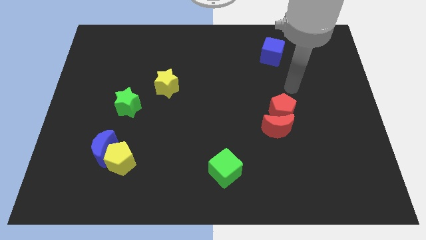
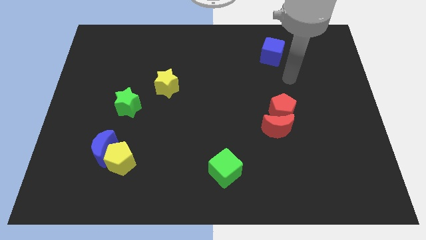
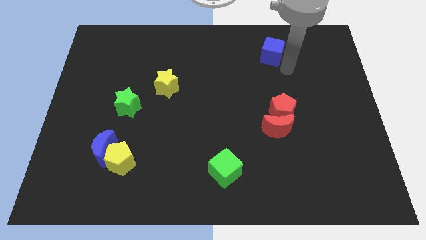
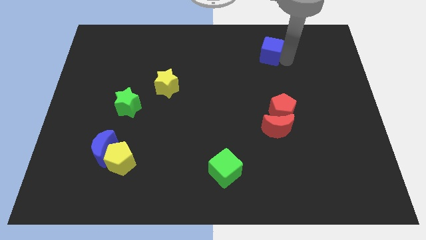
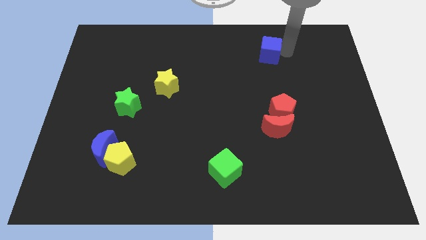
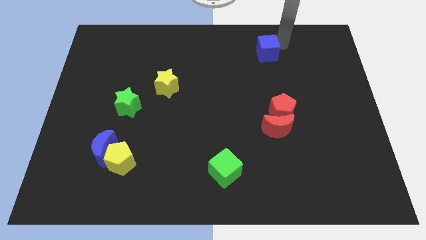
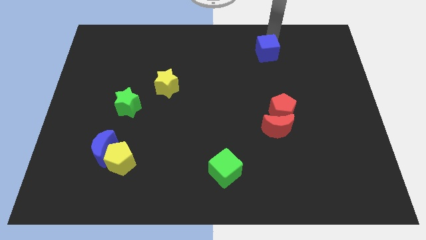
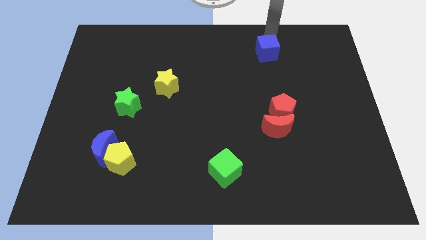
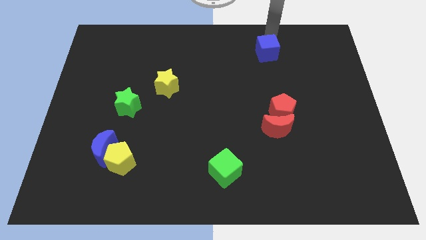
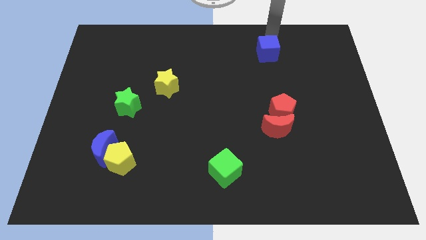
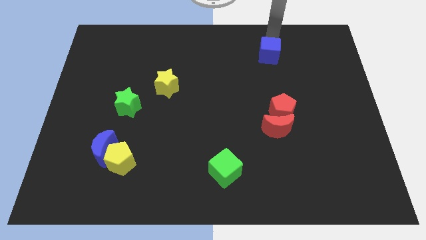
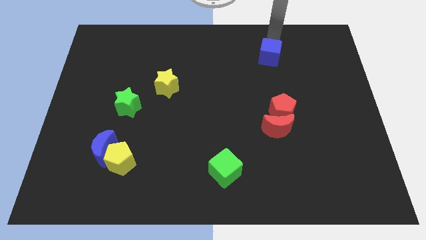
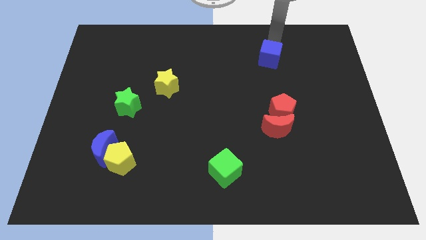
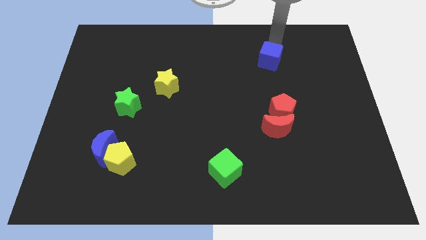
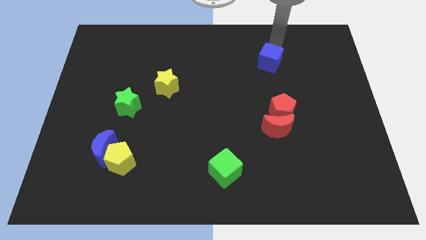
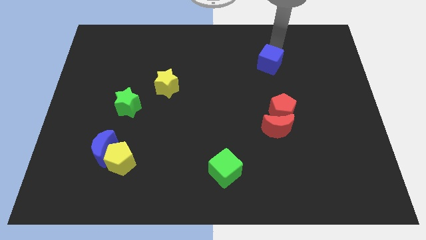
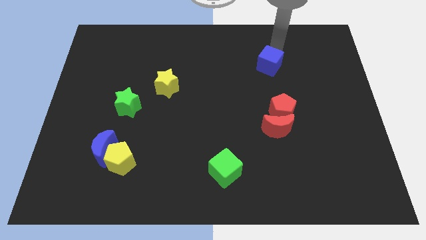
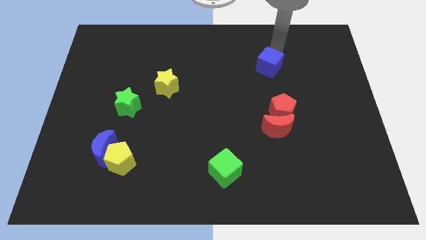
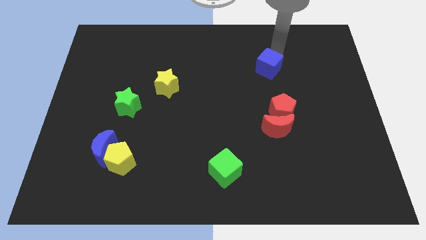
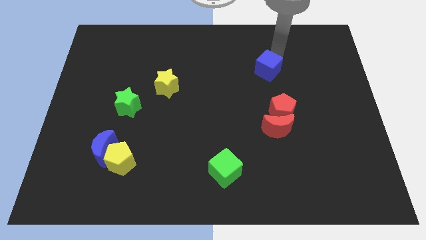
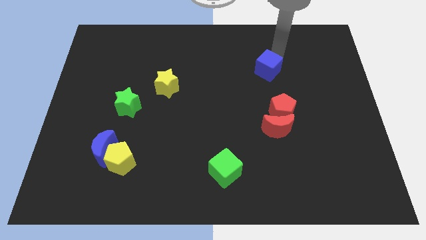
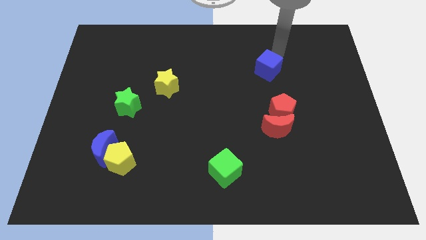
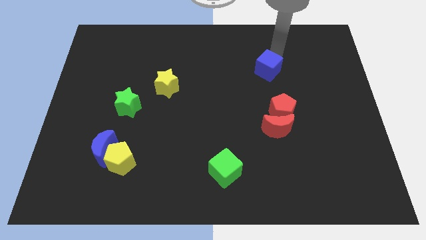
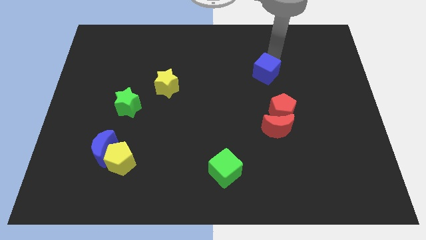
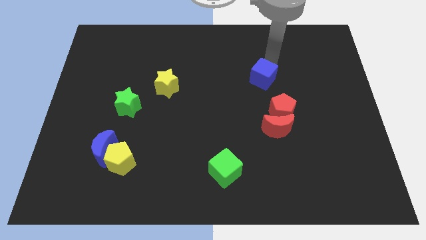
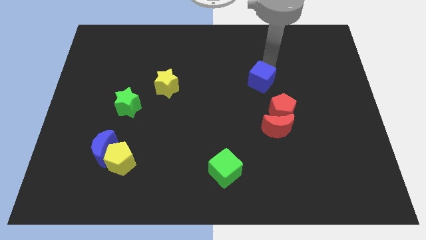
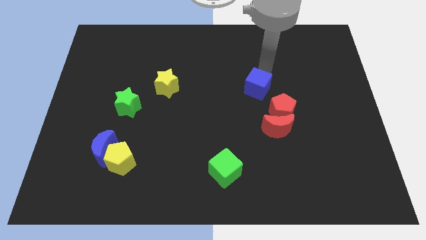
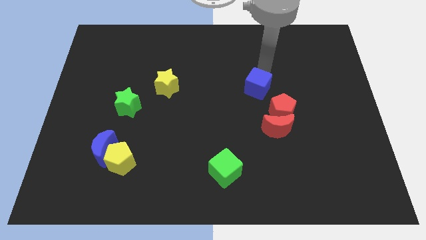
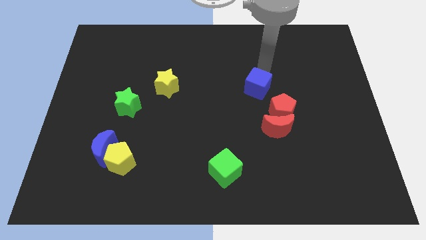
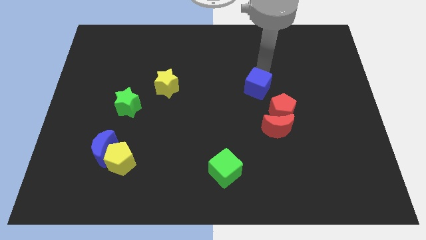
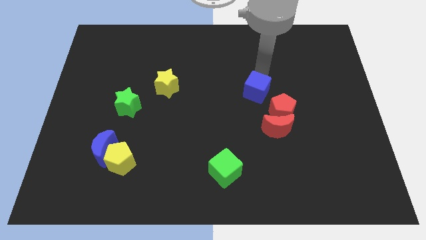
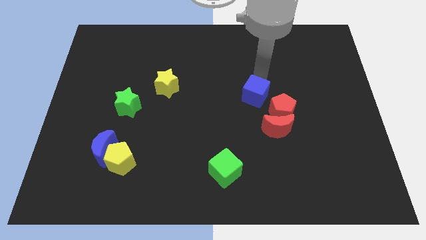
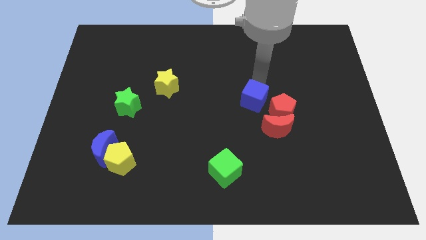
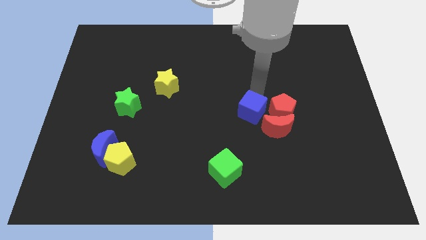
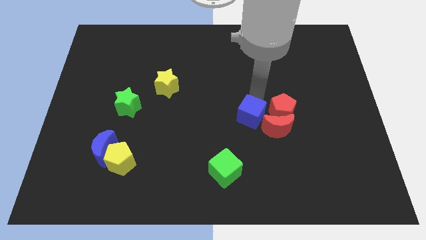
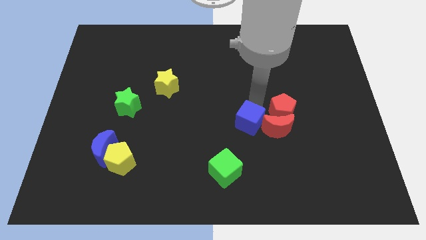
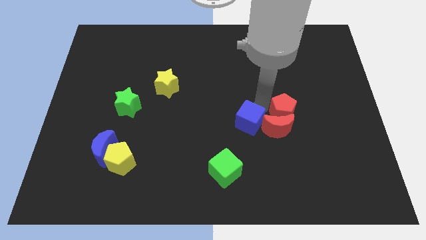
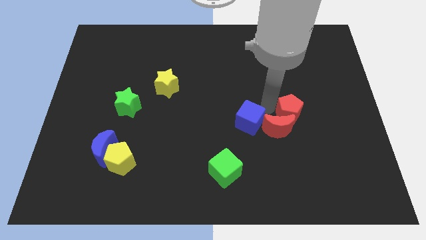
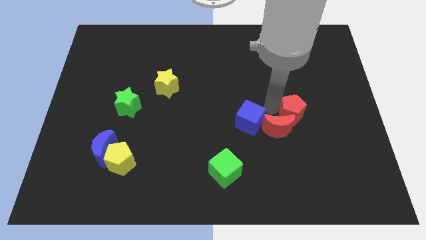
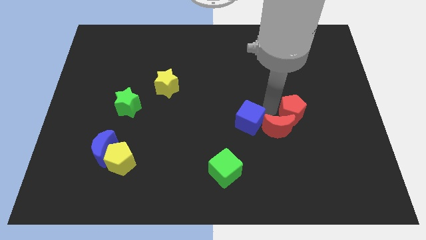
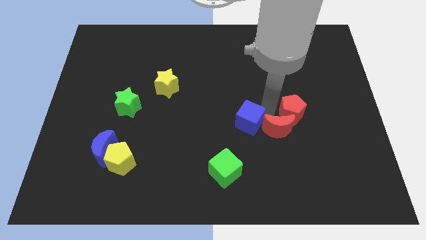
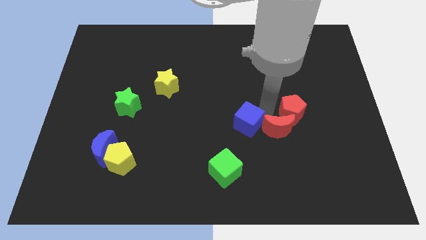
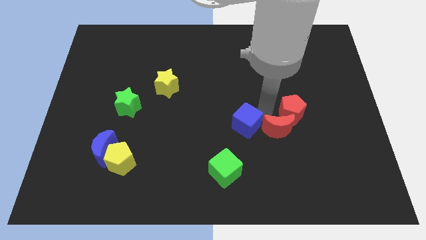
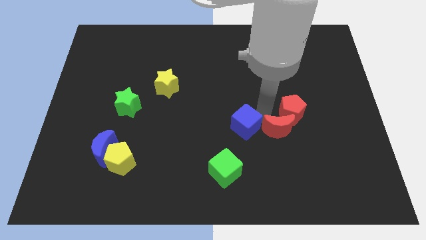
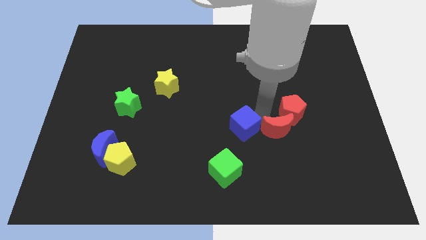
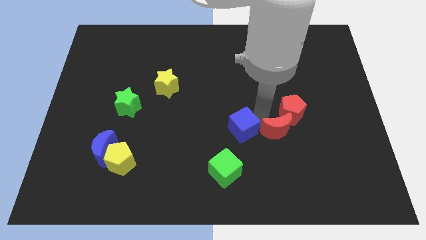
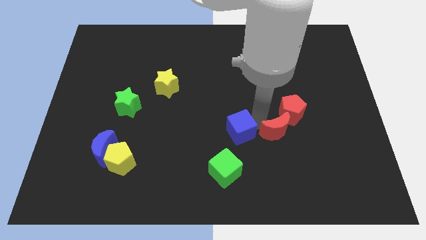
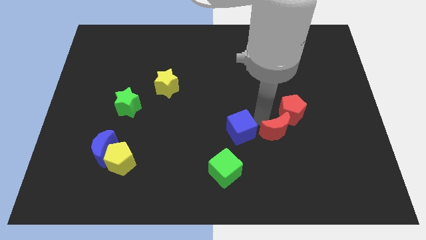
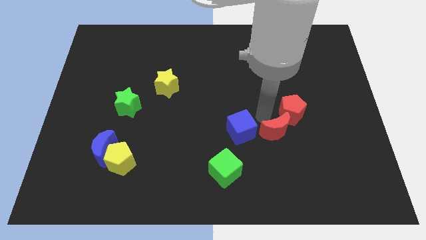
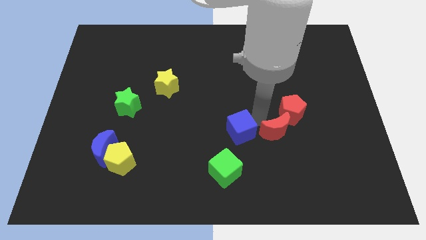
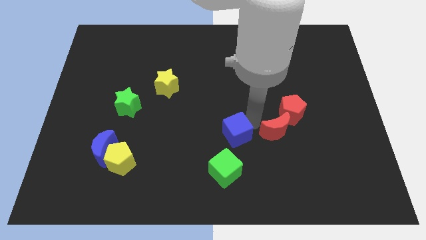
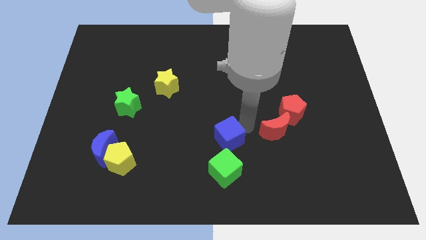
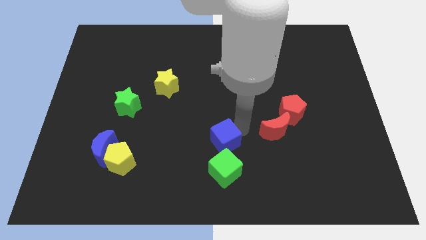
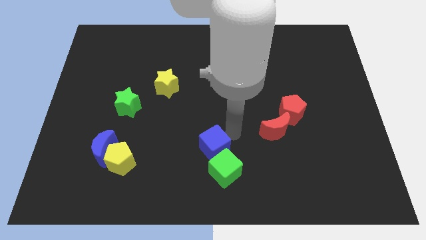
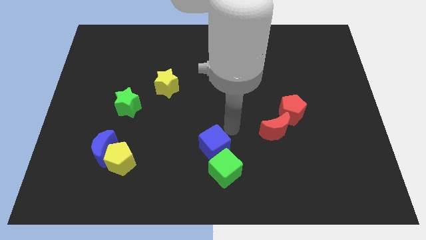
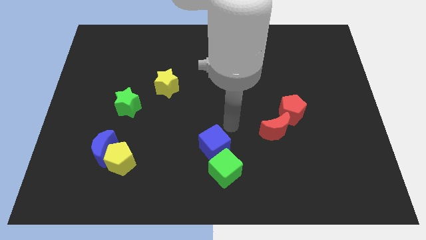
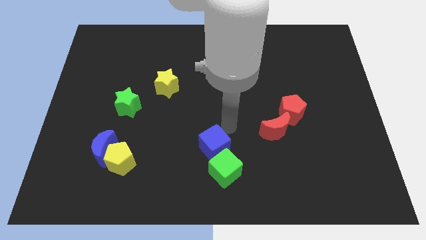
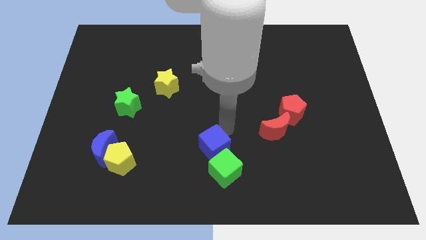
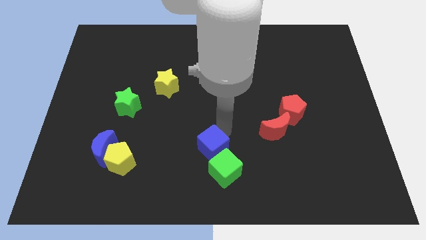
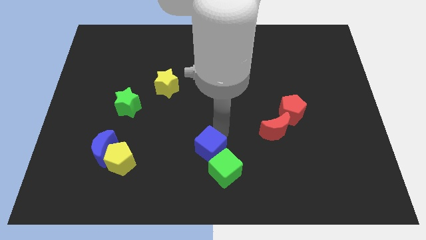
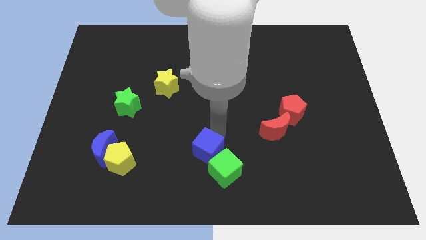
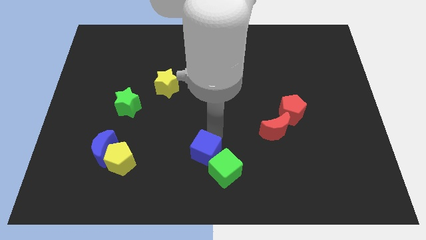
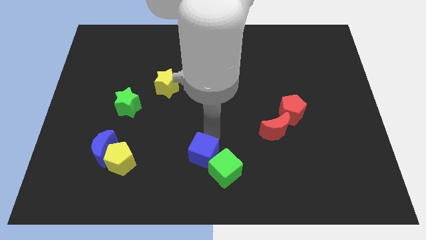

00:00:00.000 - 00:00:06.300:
push the blue cube to the bottom side
